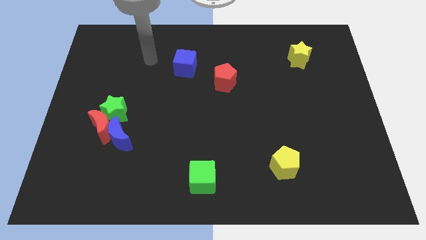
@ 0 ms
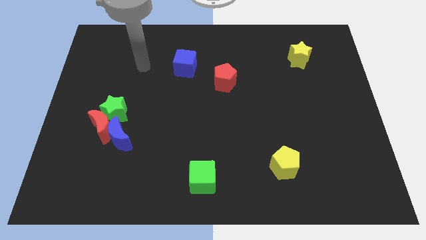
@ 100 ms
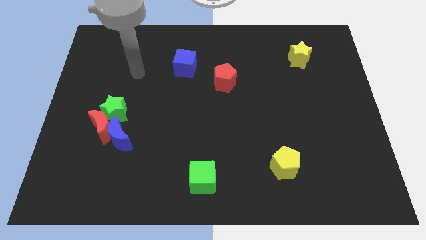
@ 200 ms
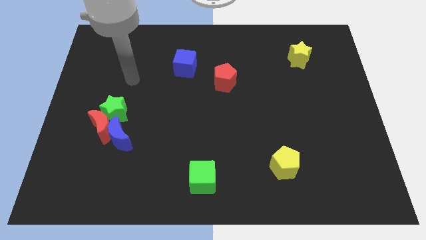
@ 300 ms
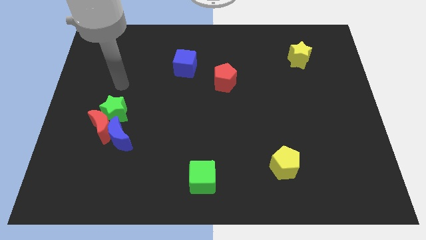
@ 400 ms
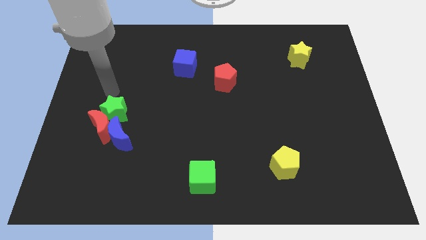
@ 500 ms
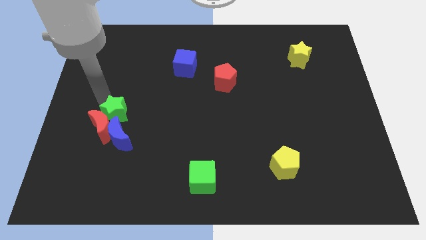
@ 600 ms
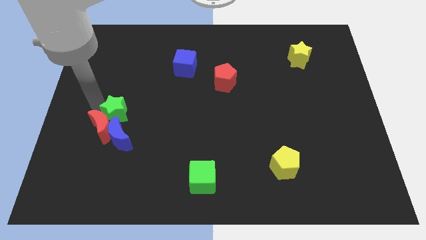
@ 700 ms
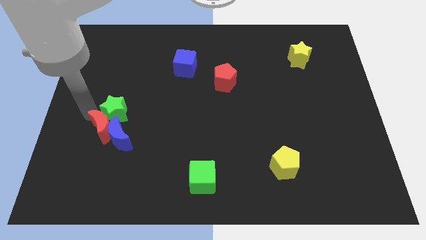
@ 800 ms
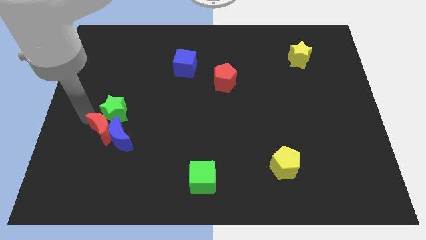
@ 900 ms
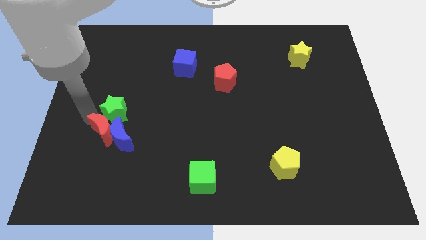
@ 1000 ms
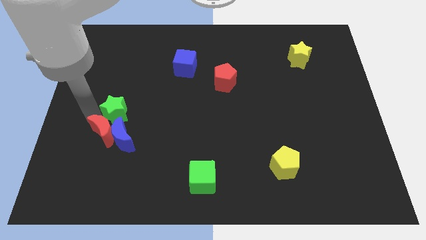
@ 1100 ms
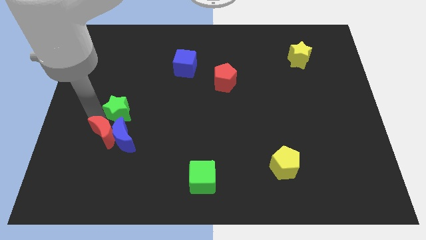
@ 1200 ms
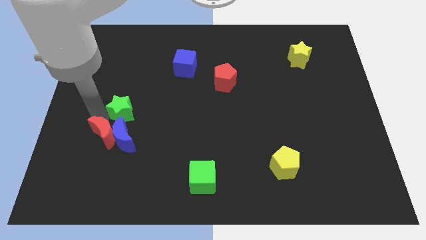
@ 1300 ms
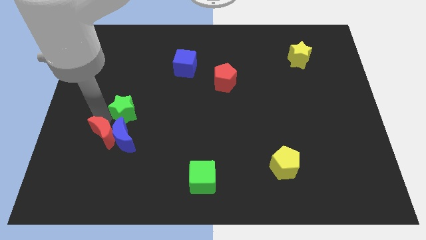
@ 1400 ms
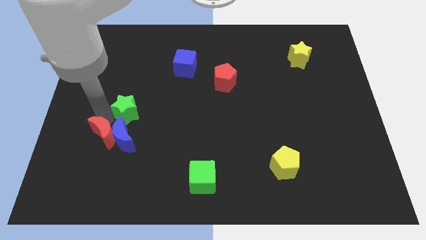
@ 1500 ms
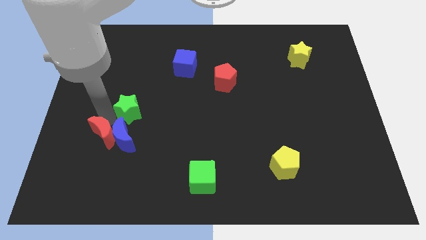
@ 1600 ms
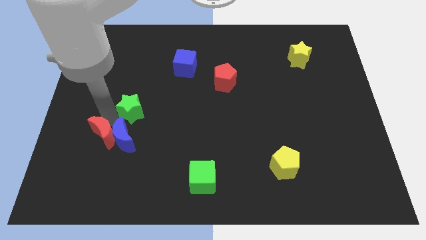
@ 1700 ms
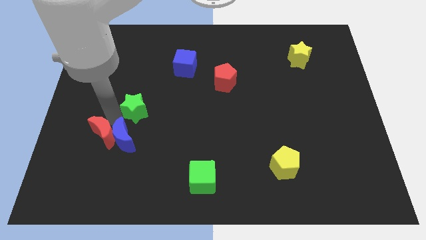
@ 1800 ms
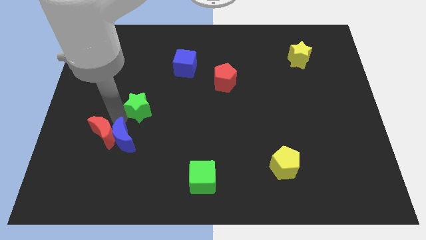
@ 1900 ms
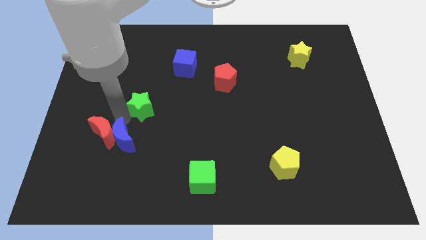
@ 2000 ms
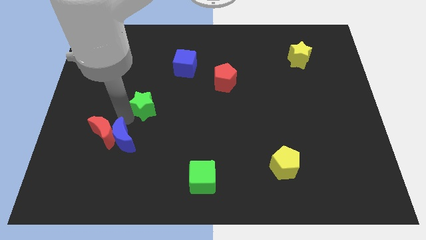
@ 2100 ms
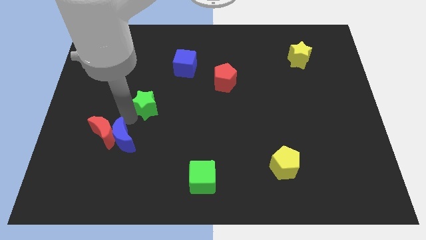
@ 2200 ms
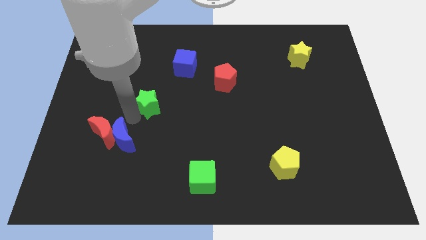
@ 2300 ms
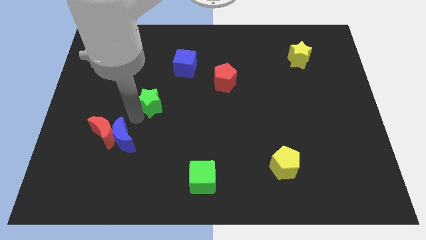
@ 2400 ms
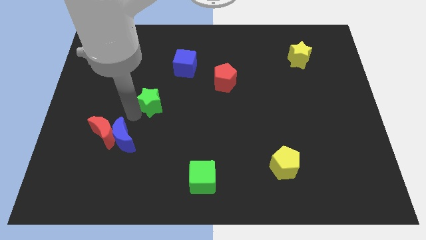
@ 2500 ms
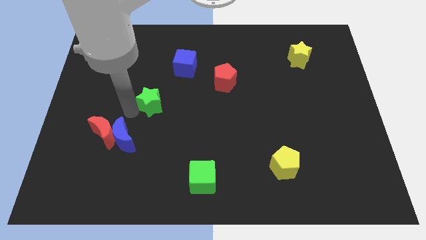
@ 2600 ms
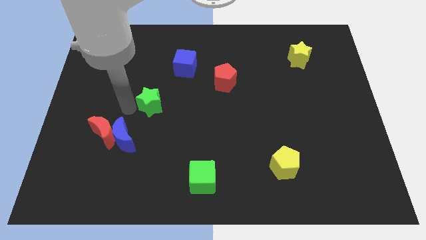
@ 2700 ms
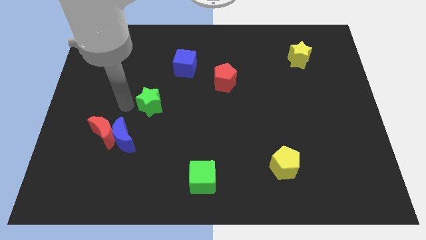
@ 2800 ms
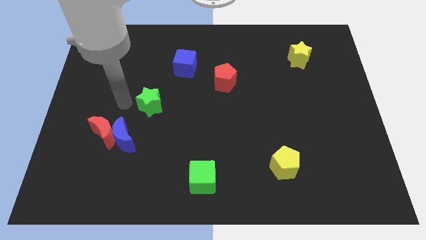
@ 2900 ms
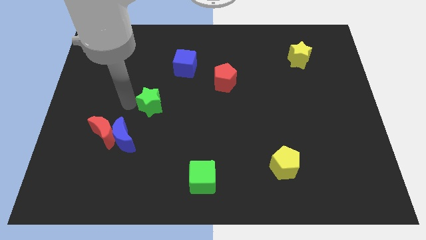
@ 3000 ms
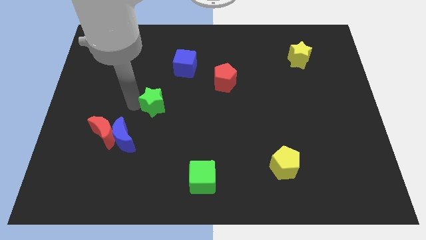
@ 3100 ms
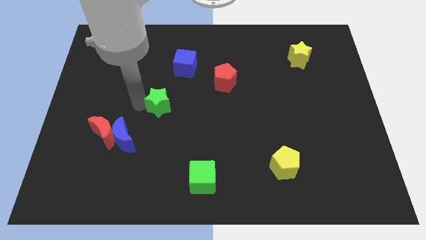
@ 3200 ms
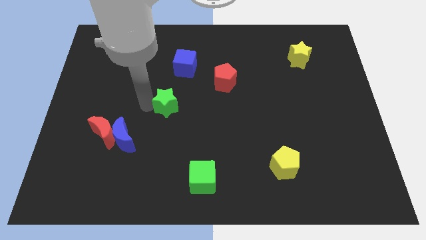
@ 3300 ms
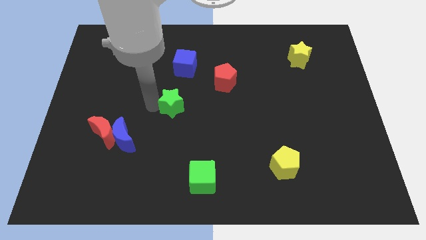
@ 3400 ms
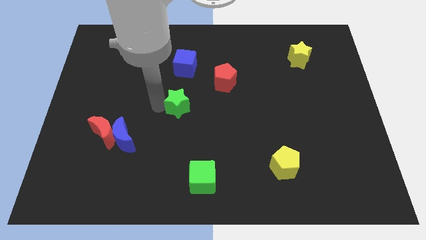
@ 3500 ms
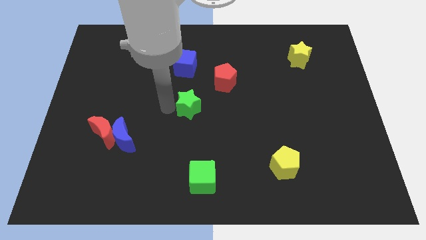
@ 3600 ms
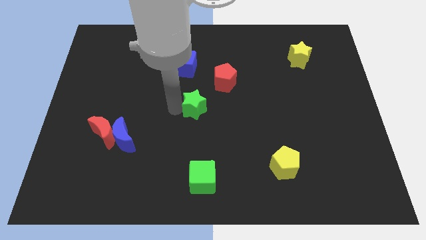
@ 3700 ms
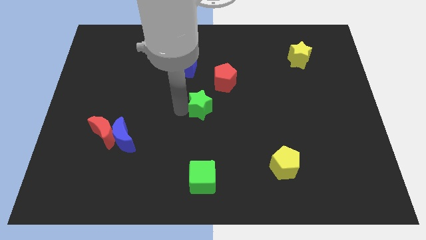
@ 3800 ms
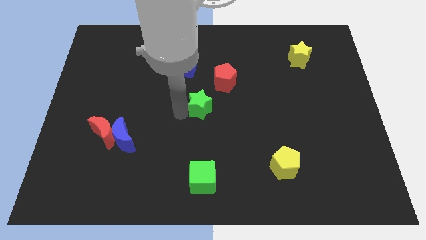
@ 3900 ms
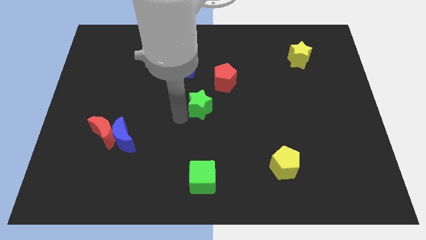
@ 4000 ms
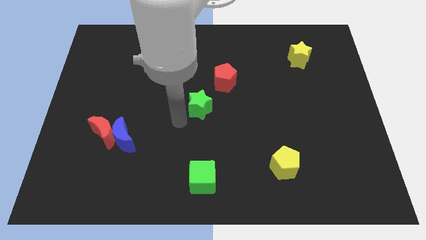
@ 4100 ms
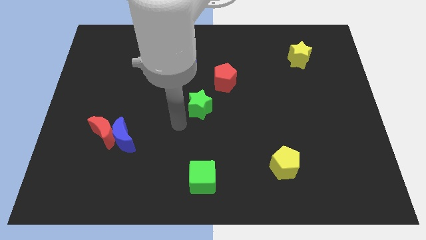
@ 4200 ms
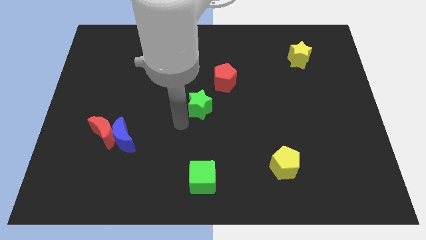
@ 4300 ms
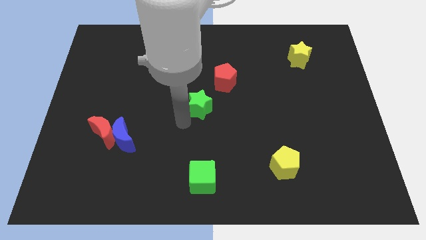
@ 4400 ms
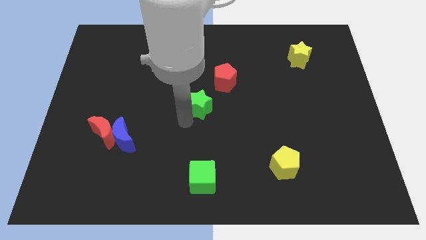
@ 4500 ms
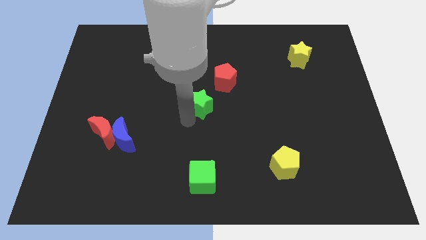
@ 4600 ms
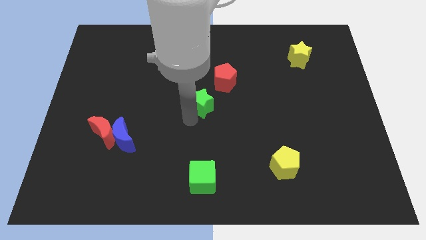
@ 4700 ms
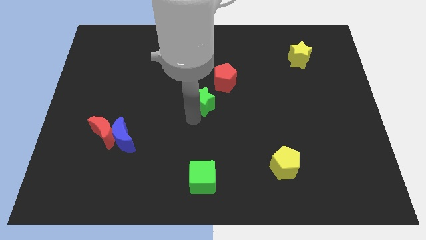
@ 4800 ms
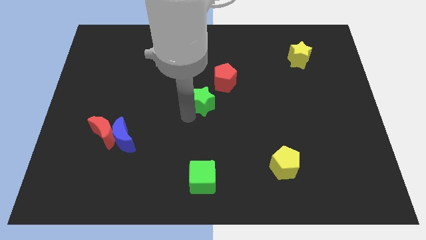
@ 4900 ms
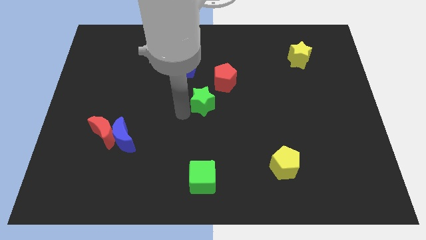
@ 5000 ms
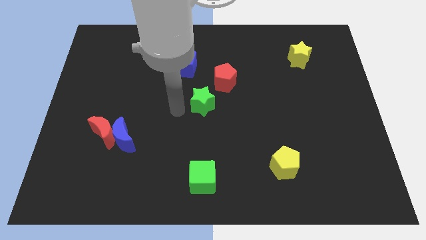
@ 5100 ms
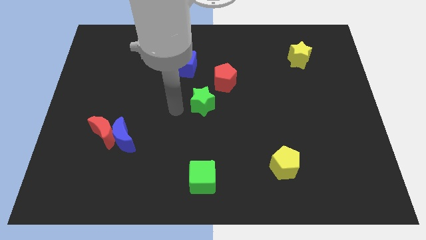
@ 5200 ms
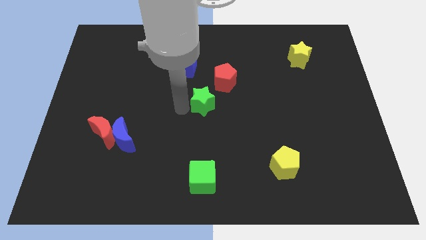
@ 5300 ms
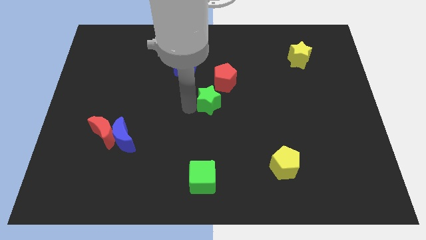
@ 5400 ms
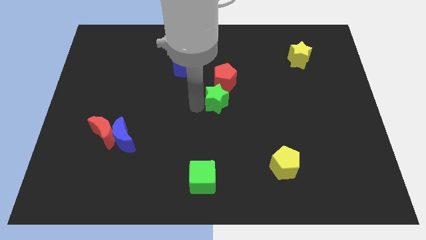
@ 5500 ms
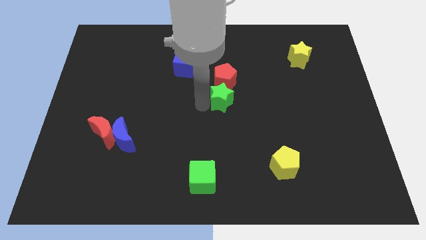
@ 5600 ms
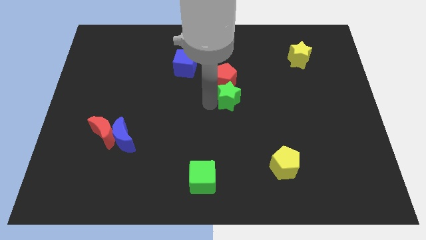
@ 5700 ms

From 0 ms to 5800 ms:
move the green star to the bottom right side of the red pentagon
